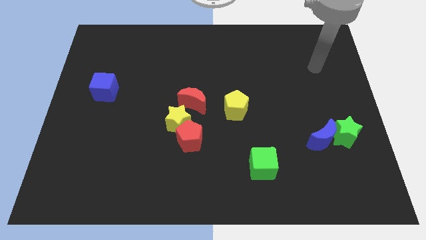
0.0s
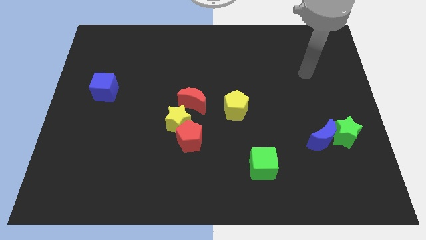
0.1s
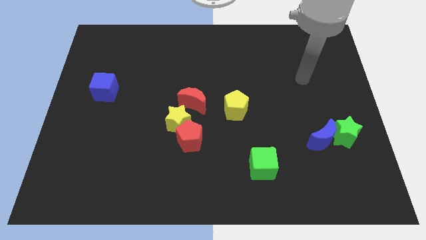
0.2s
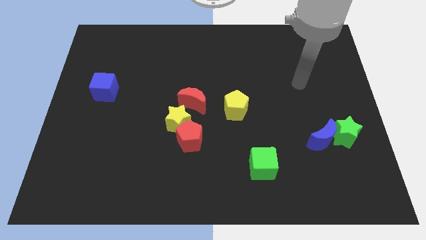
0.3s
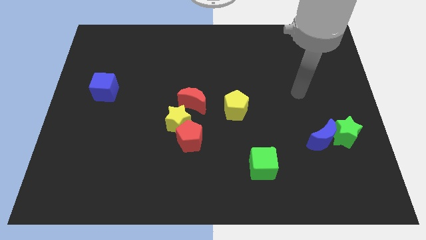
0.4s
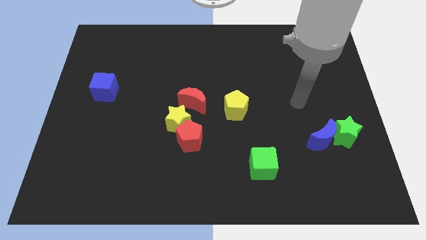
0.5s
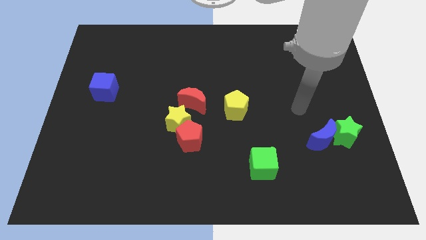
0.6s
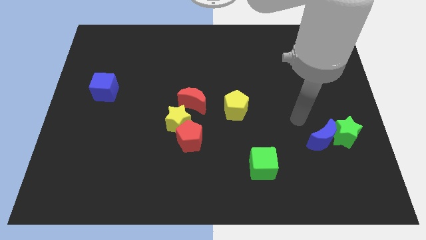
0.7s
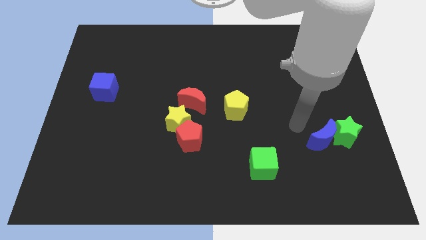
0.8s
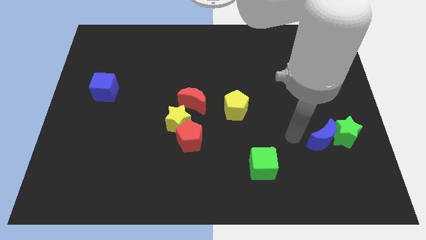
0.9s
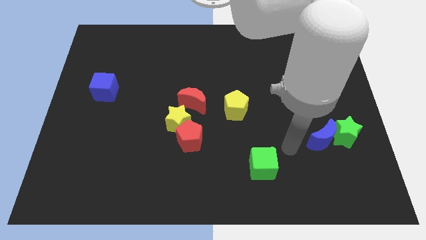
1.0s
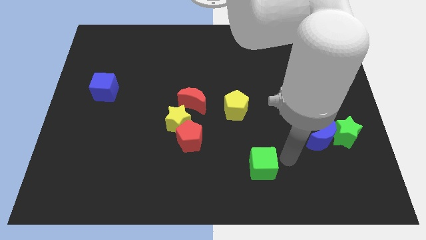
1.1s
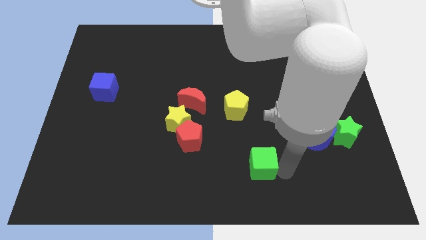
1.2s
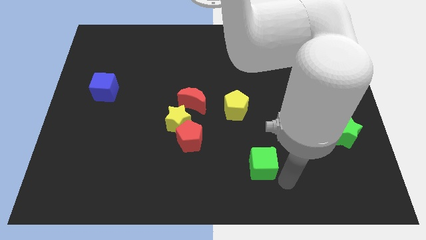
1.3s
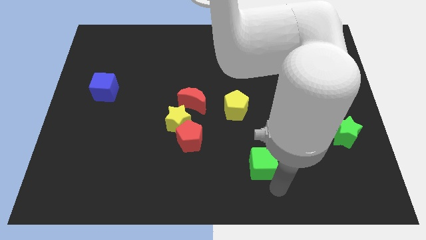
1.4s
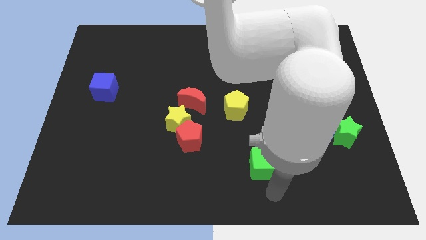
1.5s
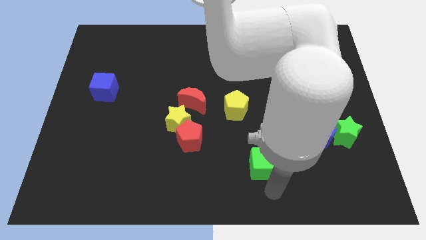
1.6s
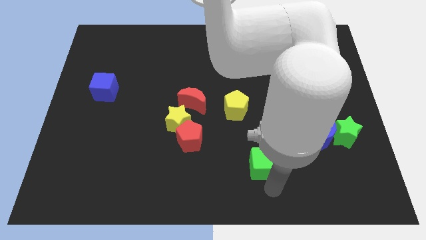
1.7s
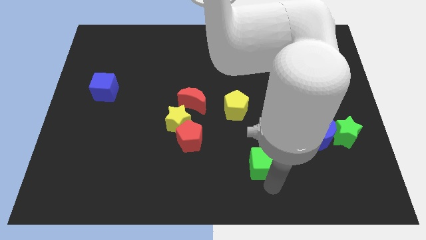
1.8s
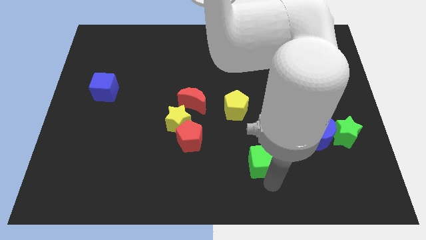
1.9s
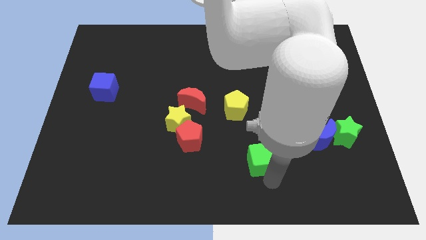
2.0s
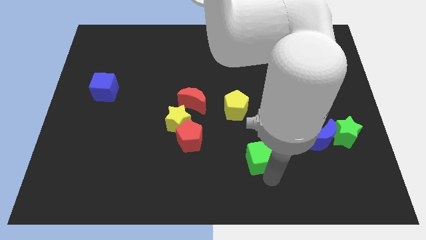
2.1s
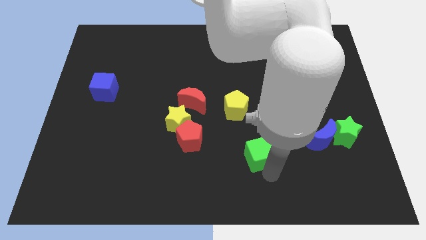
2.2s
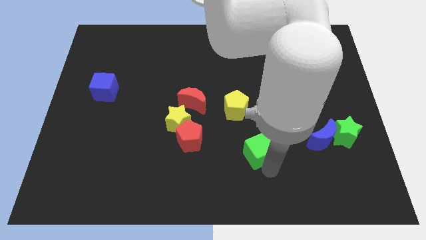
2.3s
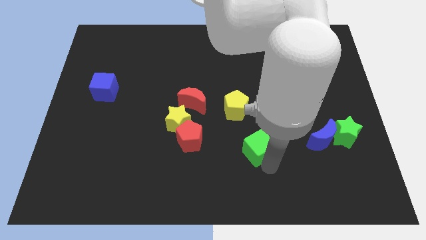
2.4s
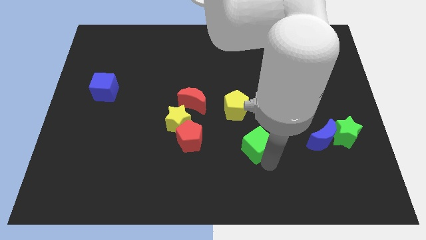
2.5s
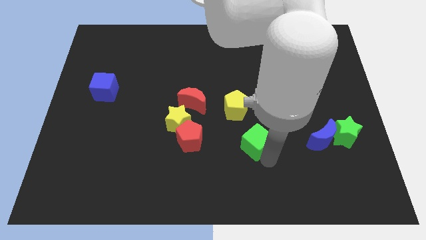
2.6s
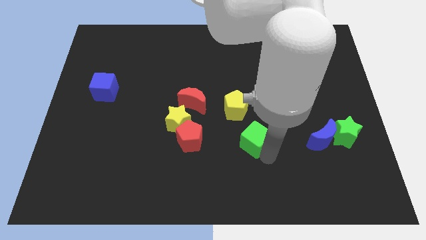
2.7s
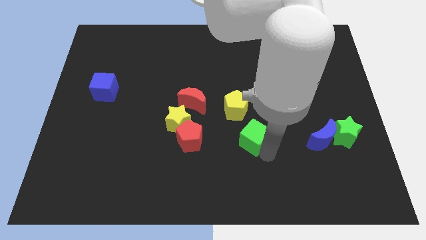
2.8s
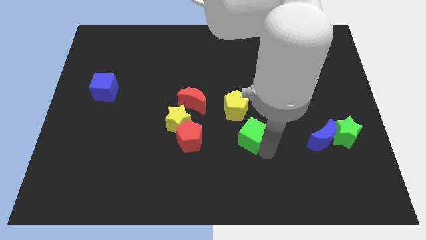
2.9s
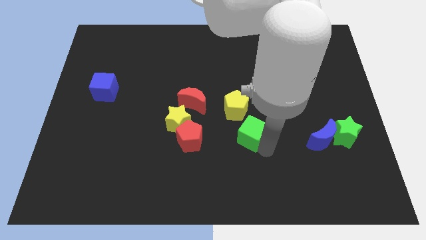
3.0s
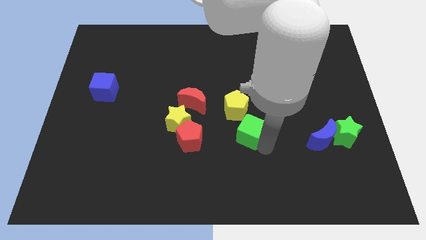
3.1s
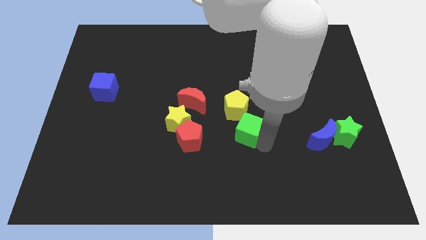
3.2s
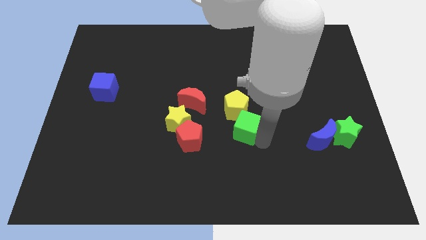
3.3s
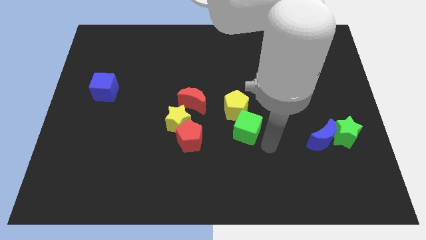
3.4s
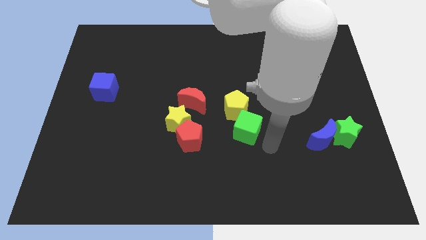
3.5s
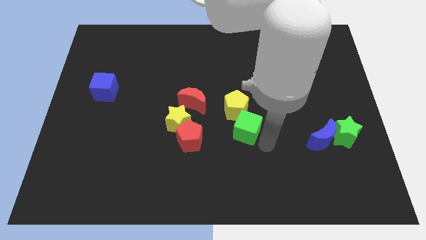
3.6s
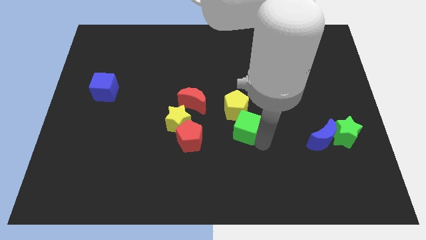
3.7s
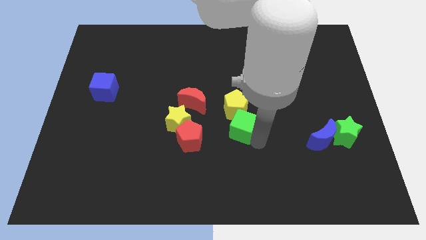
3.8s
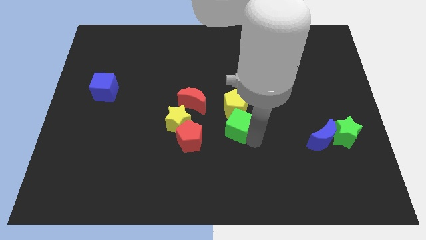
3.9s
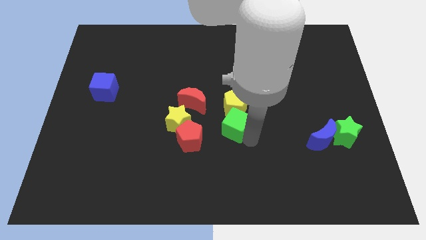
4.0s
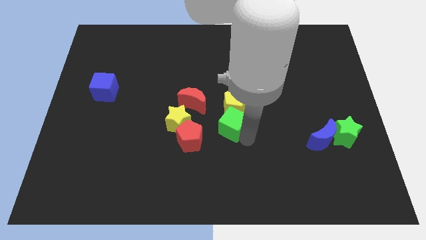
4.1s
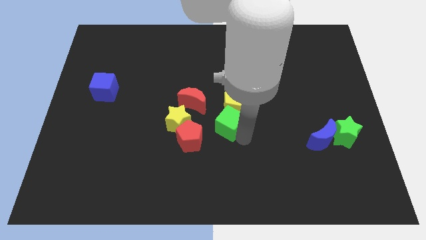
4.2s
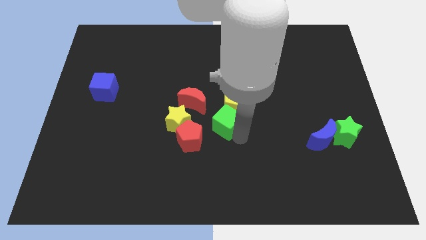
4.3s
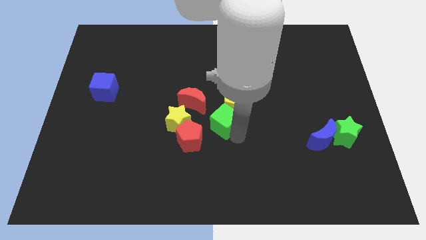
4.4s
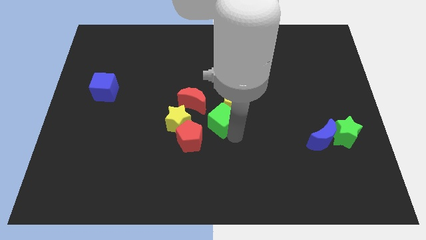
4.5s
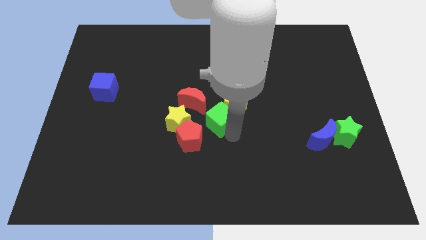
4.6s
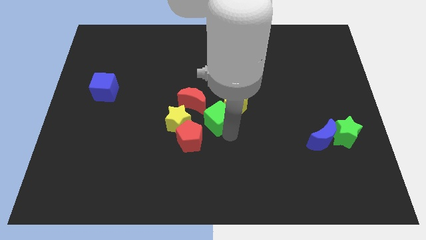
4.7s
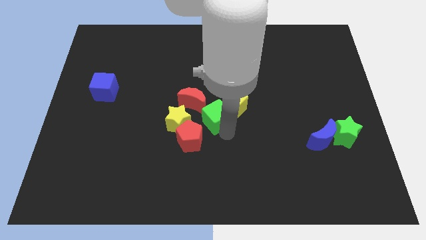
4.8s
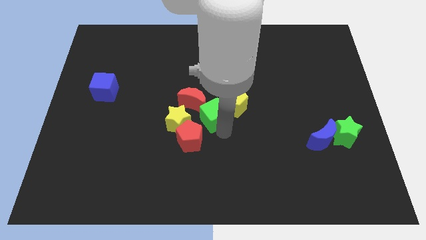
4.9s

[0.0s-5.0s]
slide the green cube diagonally up and to the right of the yellow star

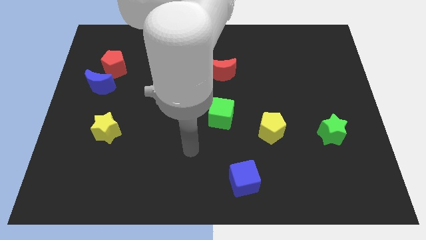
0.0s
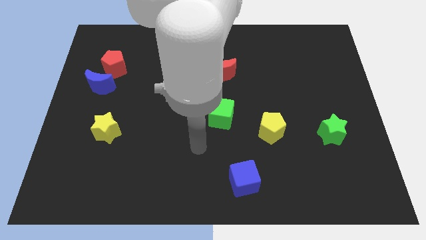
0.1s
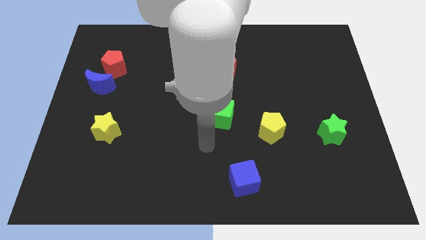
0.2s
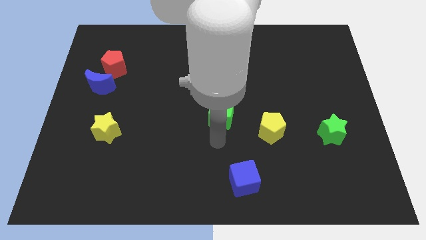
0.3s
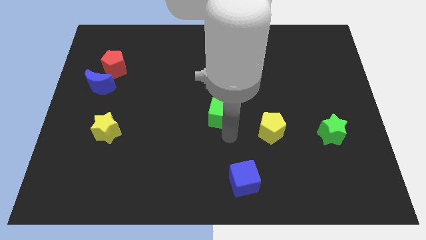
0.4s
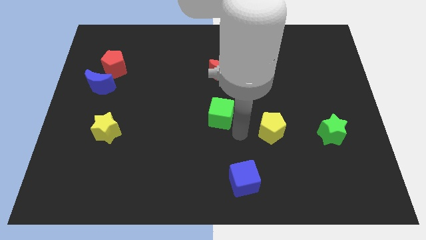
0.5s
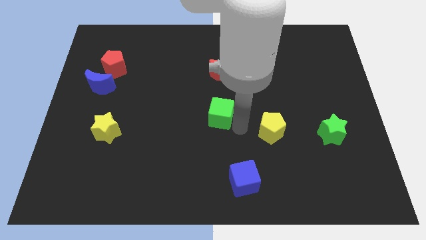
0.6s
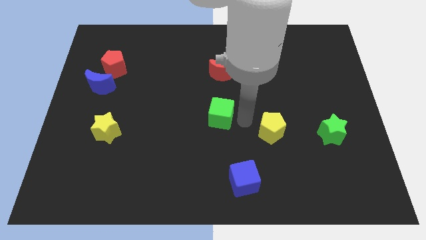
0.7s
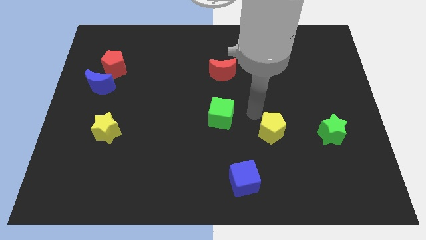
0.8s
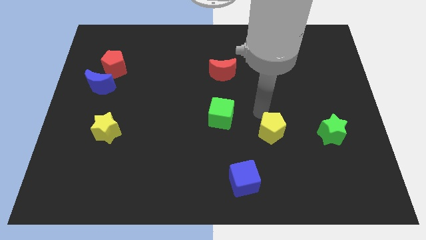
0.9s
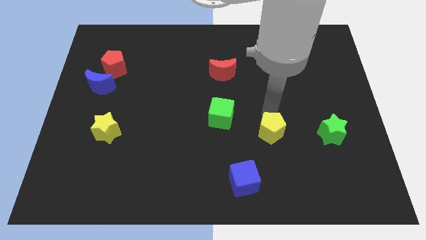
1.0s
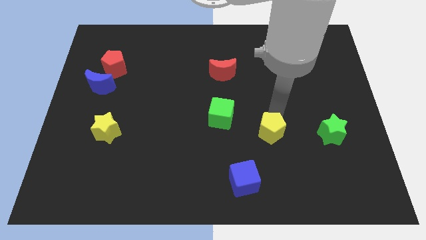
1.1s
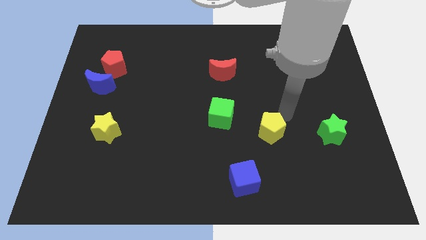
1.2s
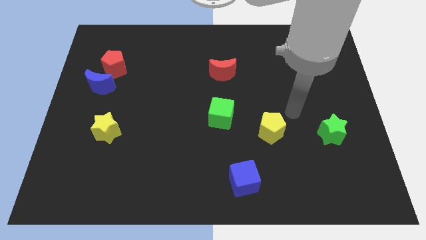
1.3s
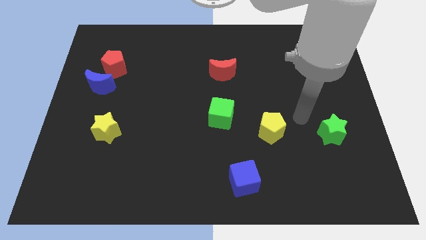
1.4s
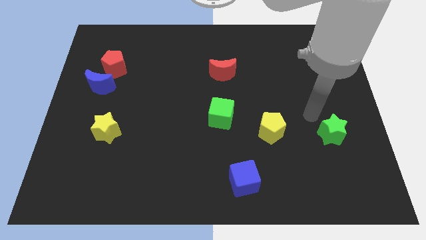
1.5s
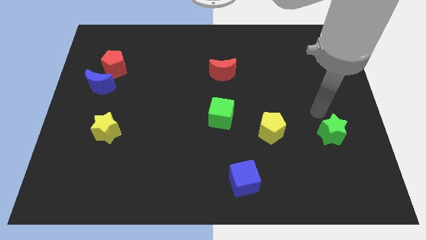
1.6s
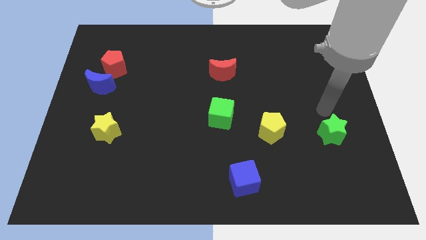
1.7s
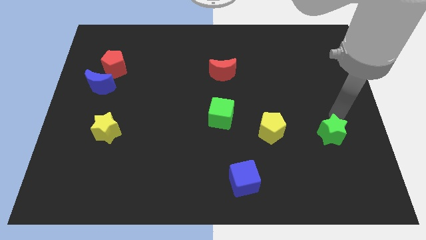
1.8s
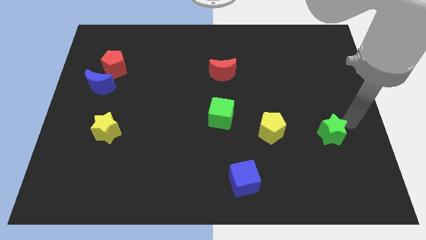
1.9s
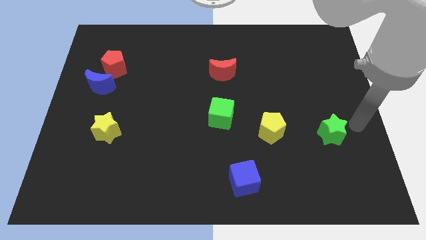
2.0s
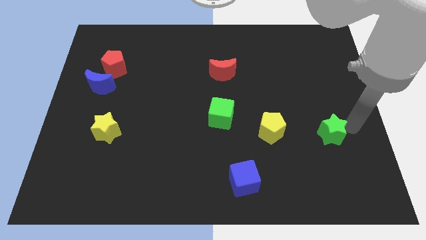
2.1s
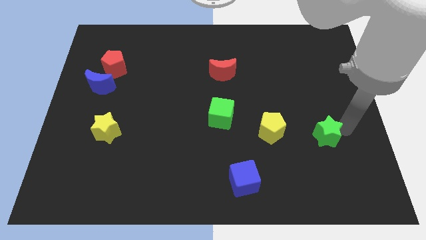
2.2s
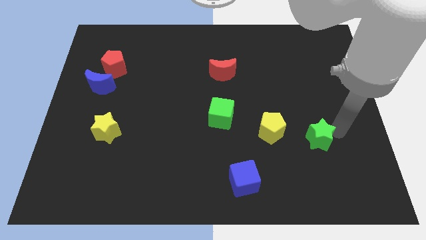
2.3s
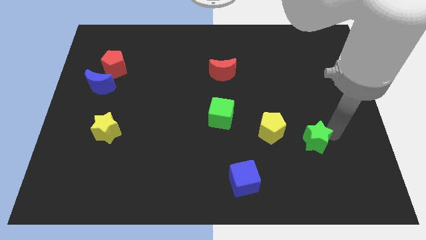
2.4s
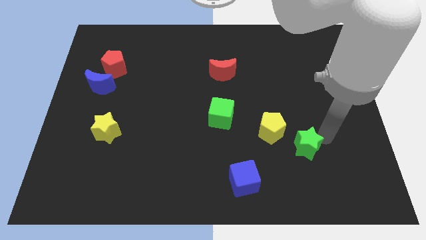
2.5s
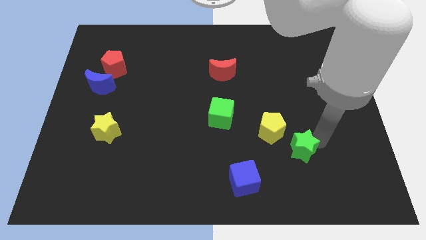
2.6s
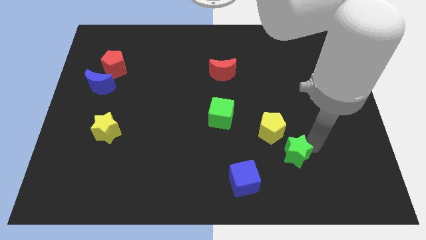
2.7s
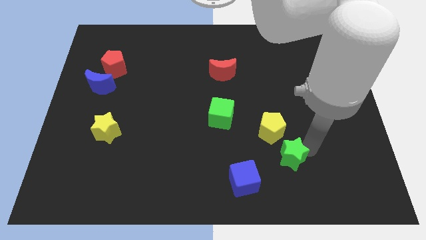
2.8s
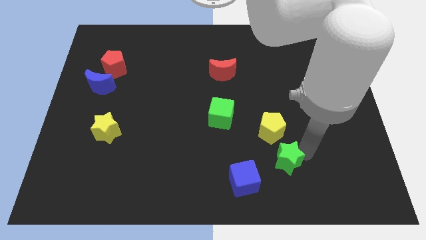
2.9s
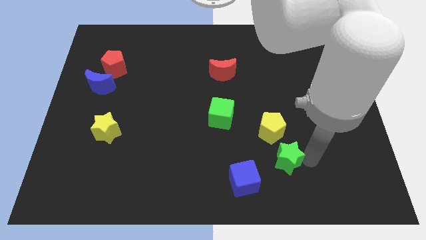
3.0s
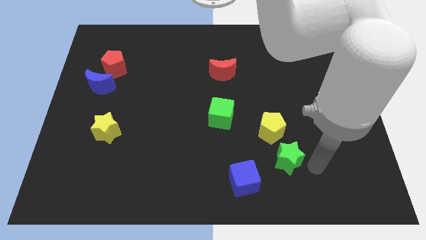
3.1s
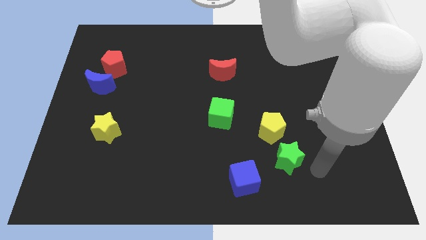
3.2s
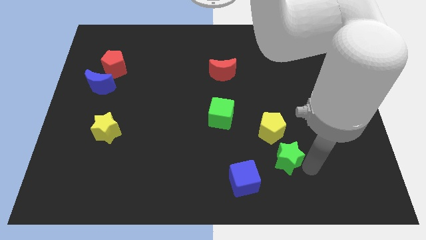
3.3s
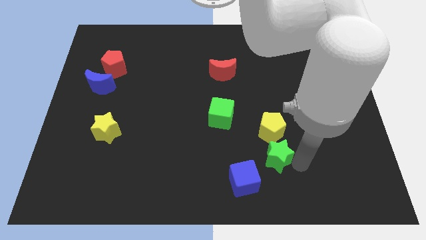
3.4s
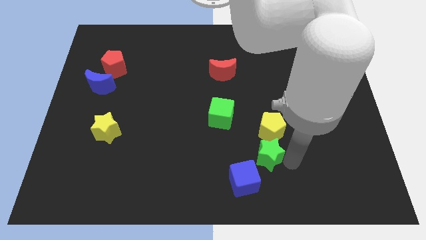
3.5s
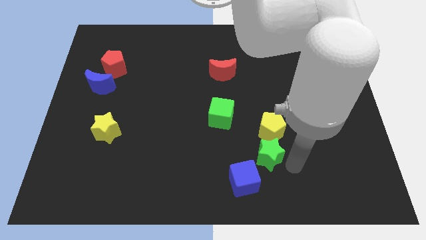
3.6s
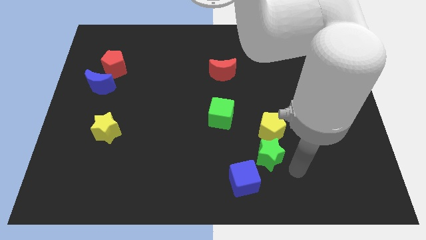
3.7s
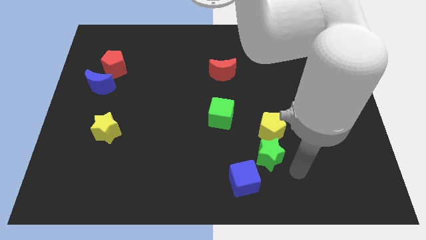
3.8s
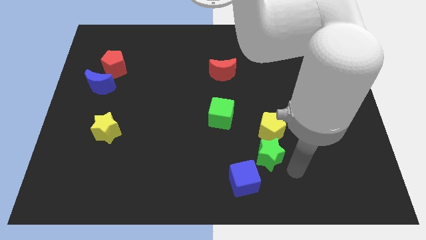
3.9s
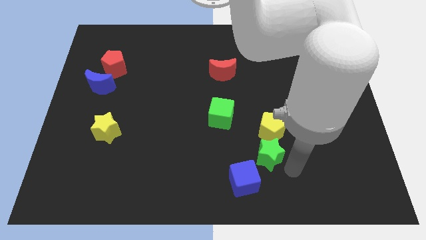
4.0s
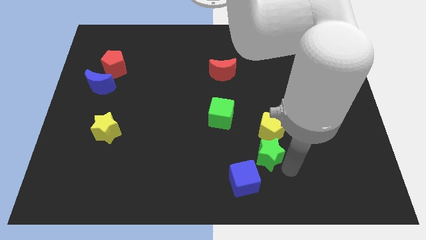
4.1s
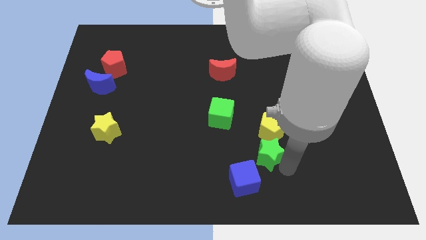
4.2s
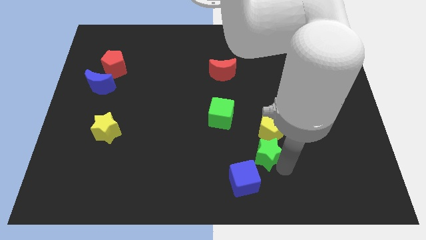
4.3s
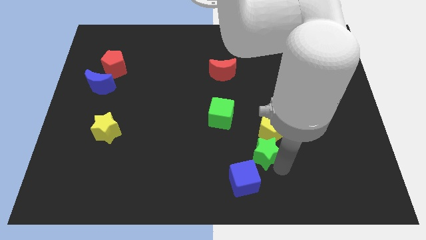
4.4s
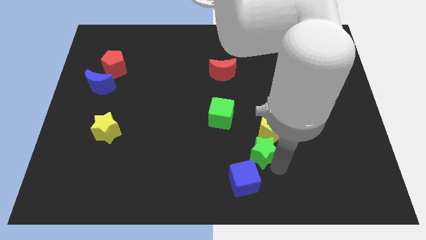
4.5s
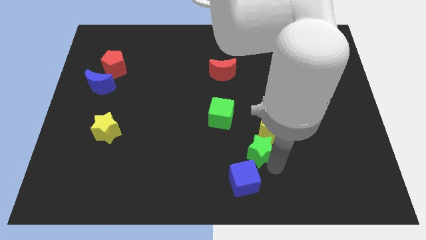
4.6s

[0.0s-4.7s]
slide the green star to the bottom right of the green cube
